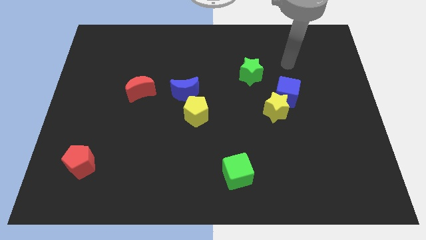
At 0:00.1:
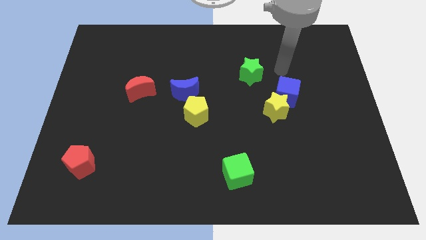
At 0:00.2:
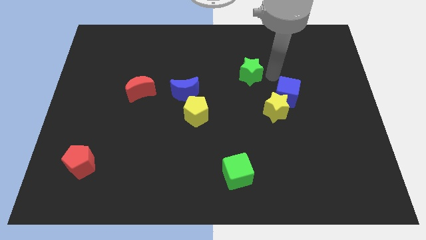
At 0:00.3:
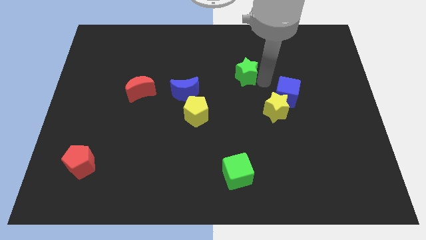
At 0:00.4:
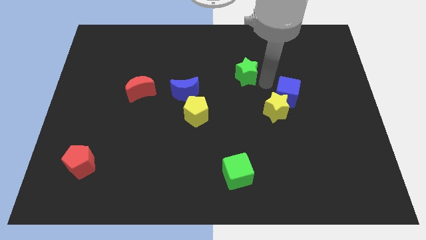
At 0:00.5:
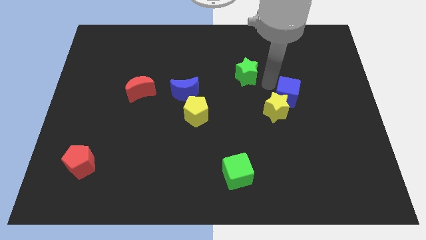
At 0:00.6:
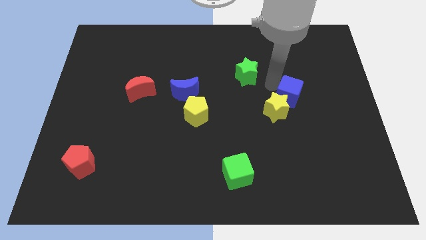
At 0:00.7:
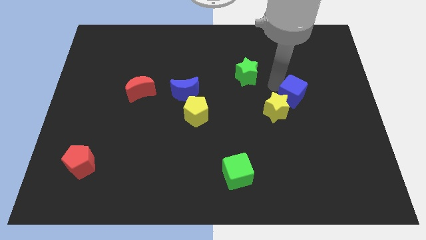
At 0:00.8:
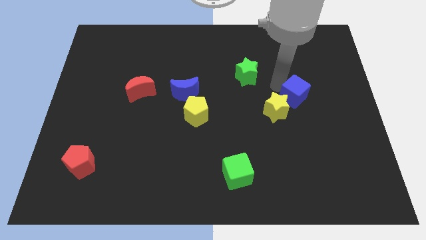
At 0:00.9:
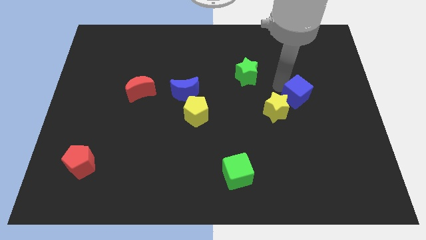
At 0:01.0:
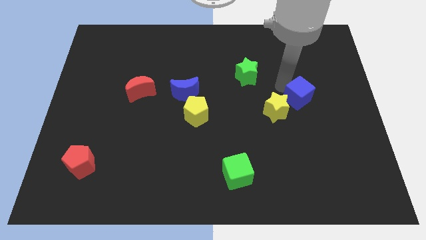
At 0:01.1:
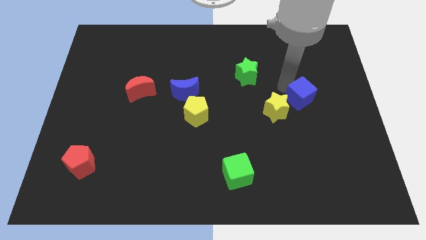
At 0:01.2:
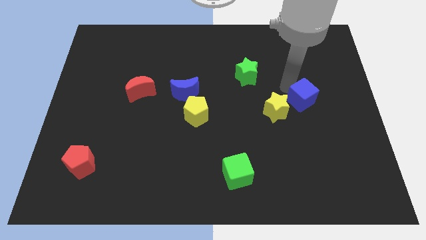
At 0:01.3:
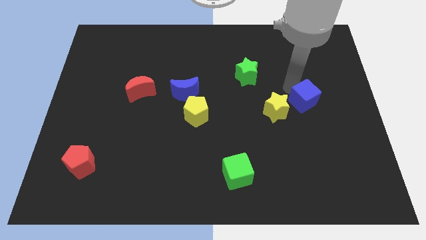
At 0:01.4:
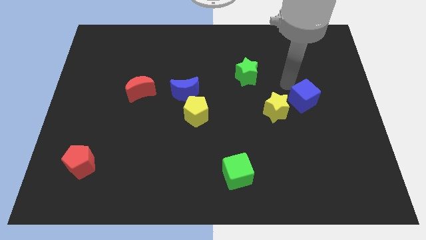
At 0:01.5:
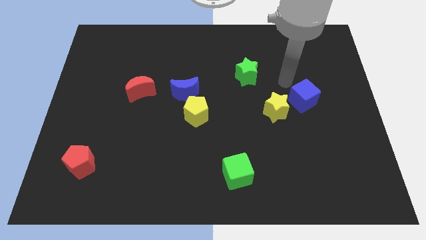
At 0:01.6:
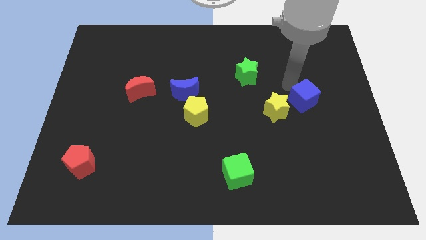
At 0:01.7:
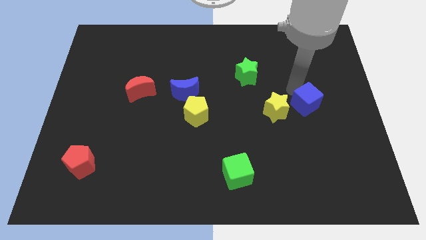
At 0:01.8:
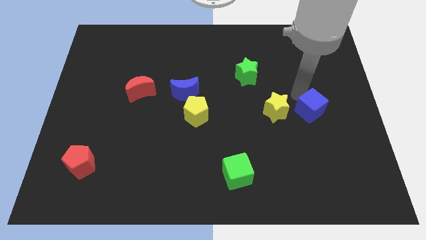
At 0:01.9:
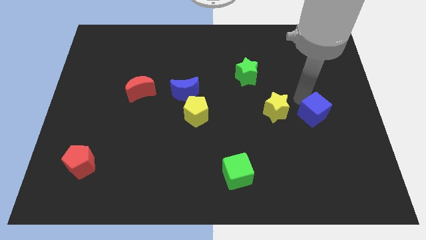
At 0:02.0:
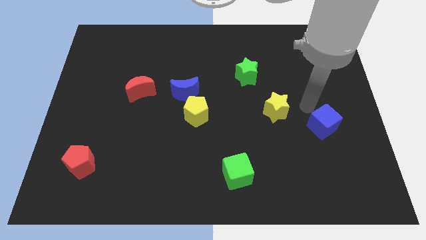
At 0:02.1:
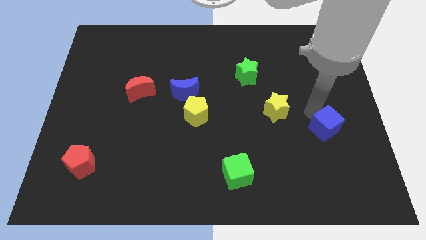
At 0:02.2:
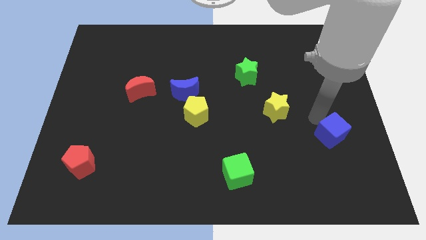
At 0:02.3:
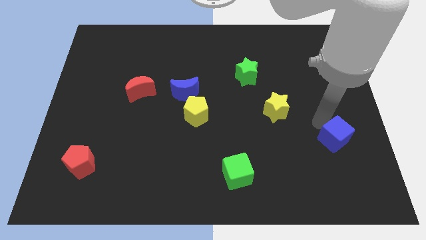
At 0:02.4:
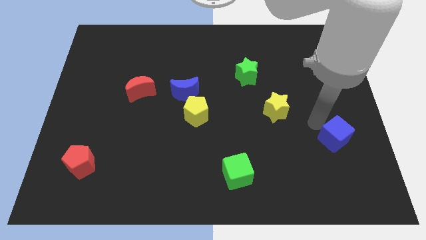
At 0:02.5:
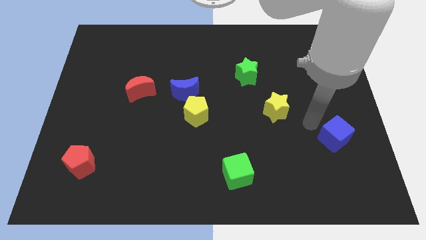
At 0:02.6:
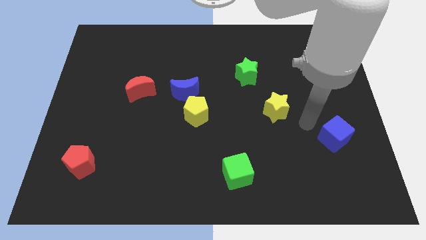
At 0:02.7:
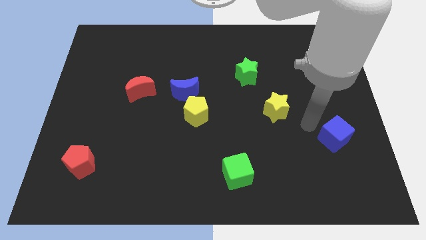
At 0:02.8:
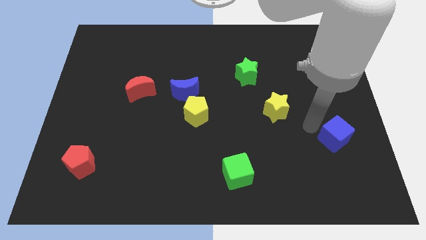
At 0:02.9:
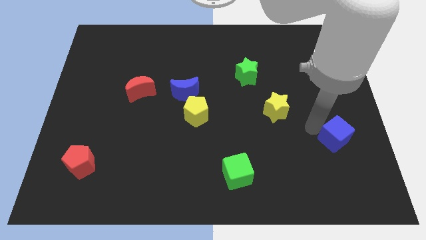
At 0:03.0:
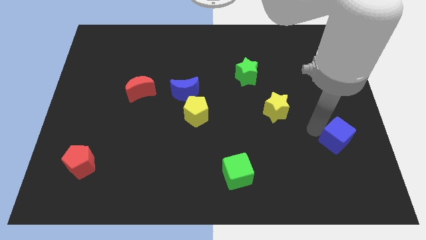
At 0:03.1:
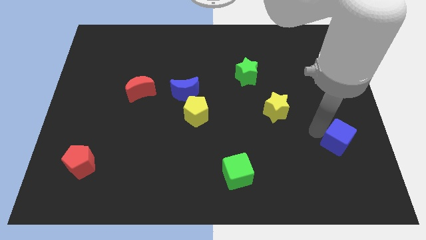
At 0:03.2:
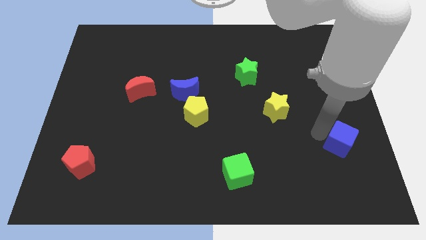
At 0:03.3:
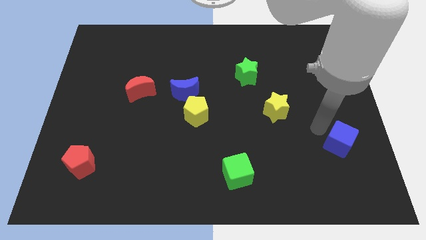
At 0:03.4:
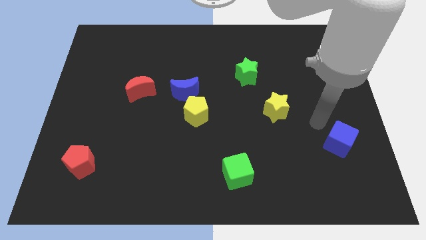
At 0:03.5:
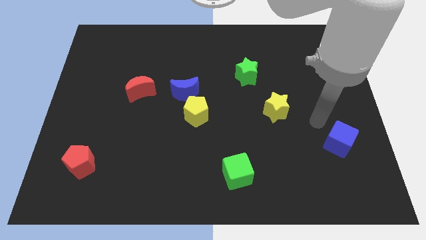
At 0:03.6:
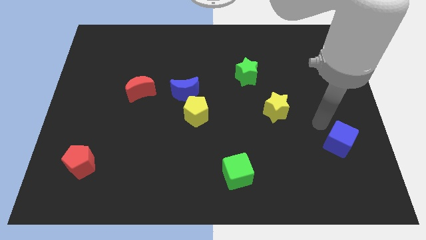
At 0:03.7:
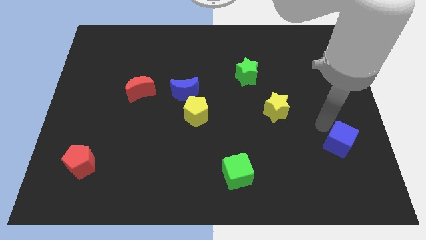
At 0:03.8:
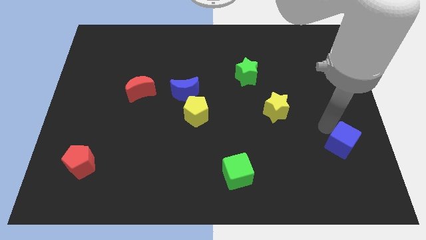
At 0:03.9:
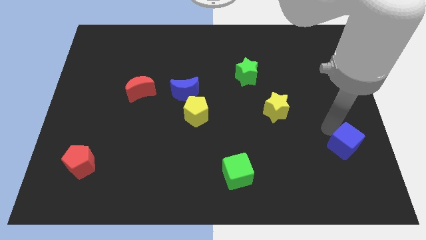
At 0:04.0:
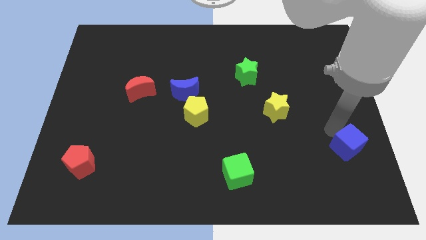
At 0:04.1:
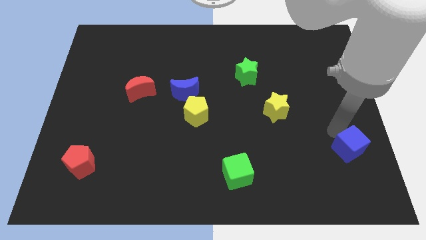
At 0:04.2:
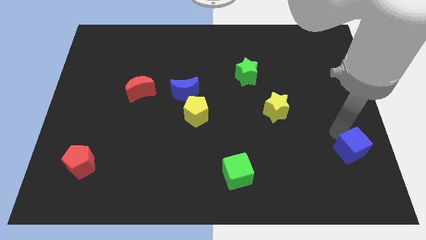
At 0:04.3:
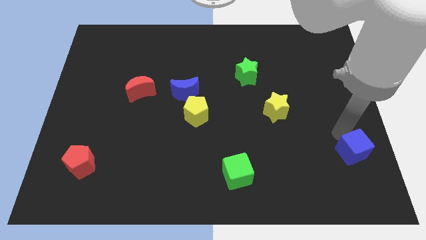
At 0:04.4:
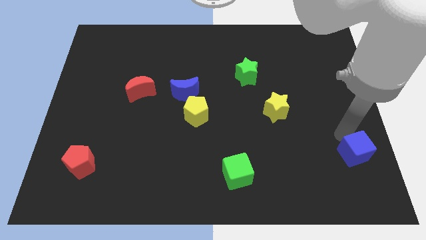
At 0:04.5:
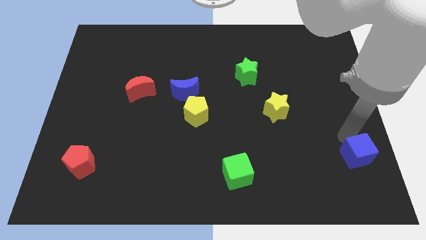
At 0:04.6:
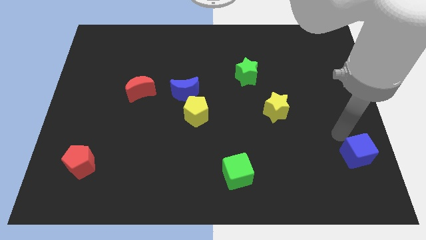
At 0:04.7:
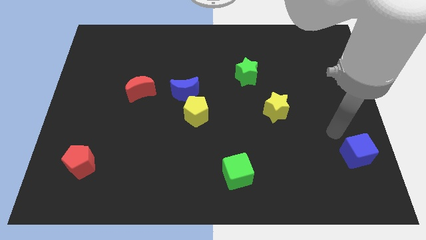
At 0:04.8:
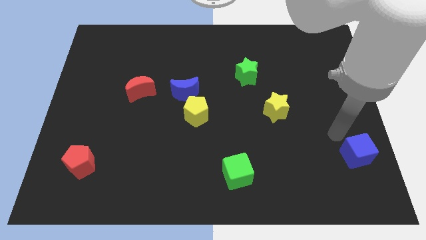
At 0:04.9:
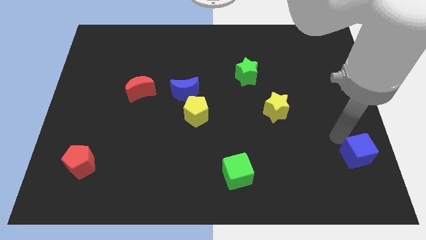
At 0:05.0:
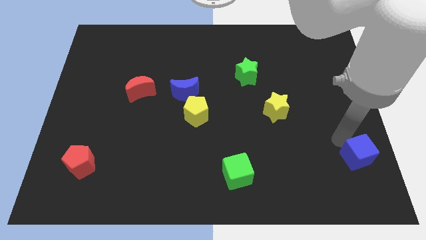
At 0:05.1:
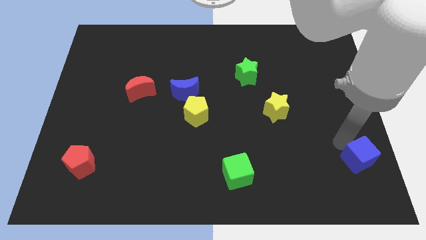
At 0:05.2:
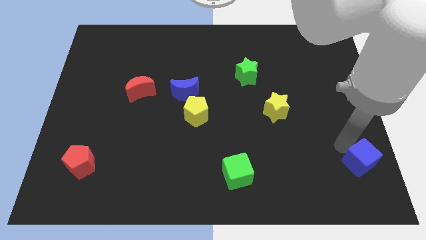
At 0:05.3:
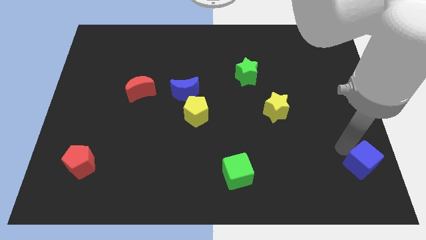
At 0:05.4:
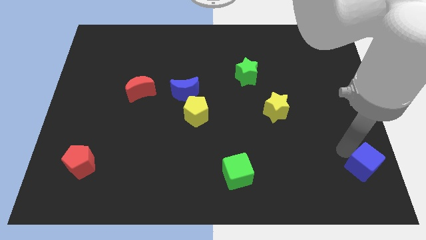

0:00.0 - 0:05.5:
move the blue cube to the bottom right corner
